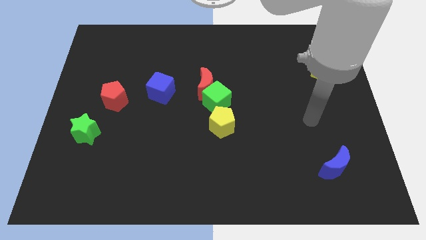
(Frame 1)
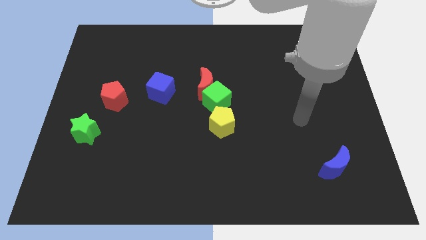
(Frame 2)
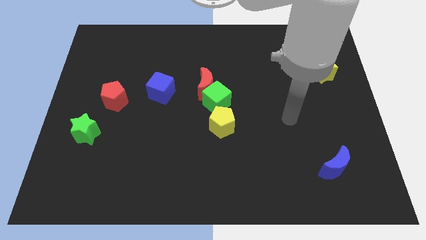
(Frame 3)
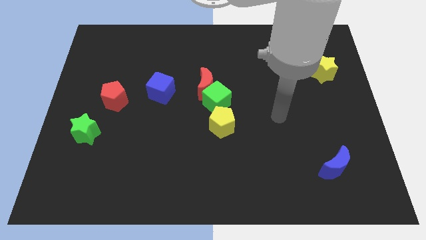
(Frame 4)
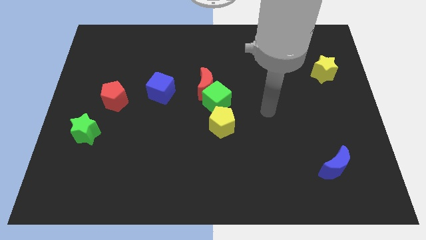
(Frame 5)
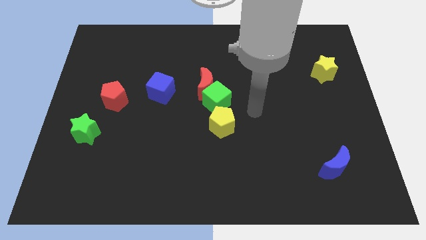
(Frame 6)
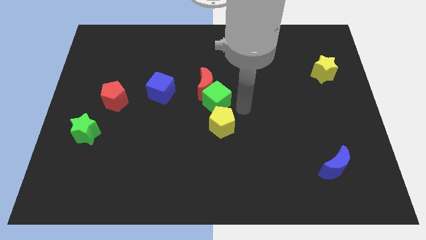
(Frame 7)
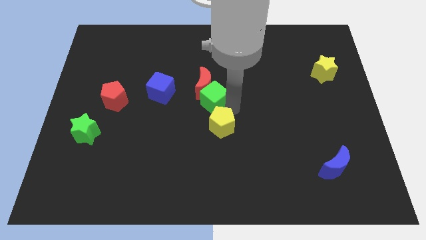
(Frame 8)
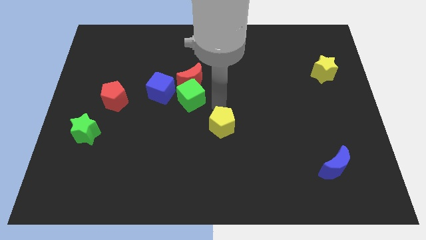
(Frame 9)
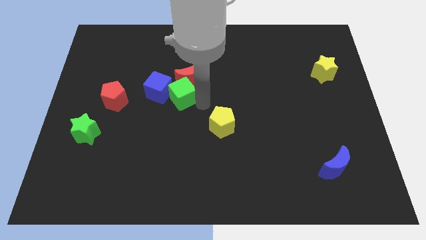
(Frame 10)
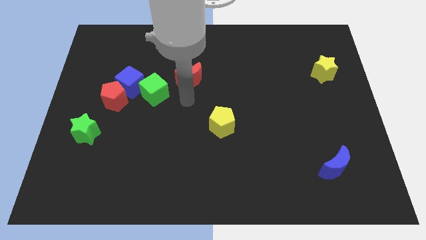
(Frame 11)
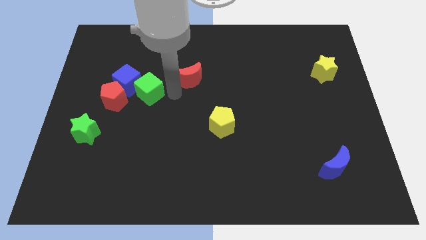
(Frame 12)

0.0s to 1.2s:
pull the red moon apart from the green cube

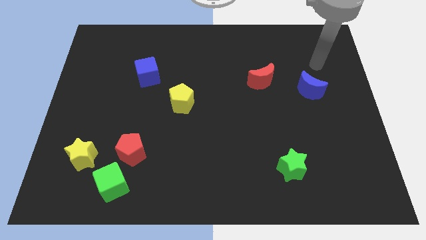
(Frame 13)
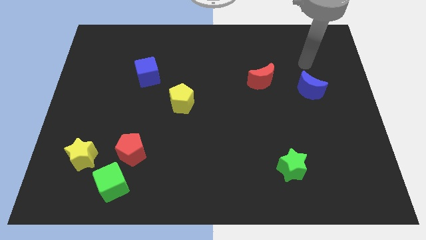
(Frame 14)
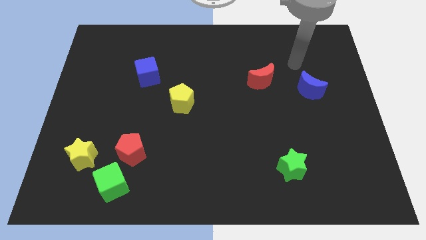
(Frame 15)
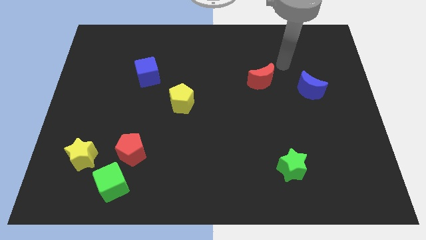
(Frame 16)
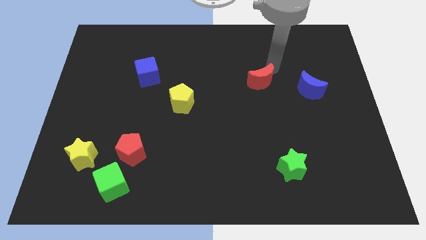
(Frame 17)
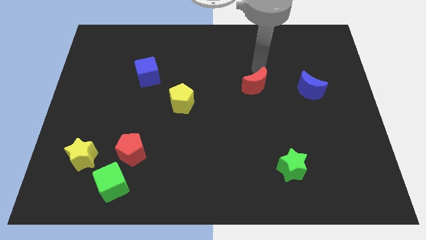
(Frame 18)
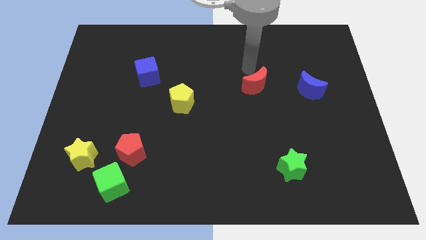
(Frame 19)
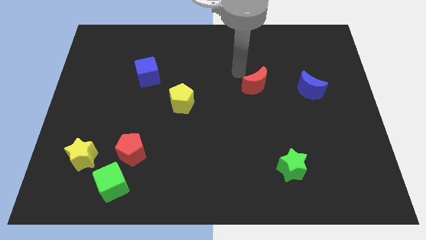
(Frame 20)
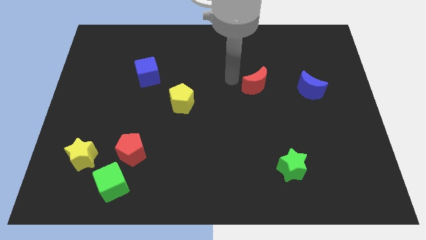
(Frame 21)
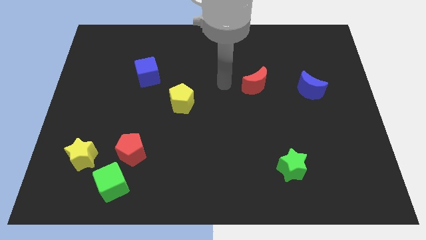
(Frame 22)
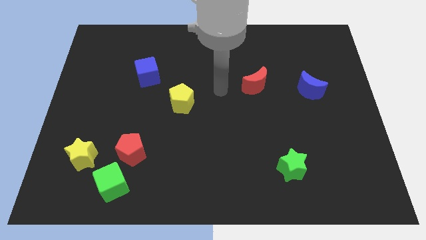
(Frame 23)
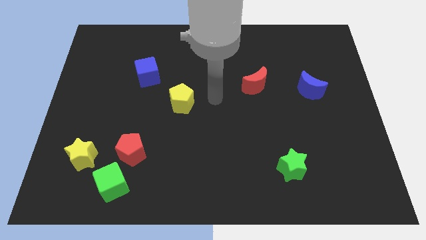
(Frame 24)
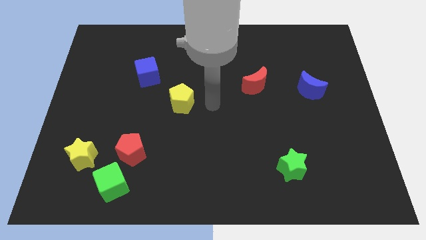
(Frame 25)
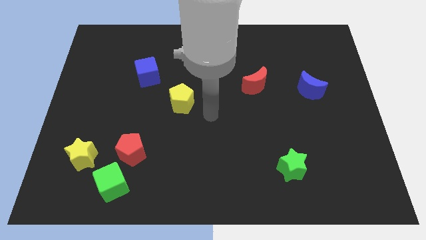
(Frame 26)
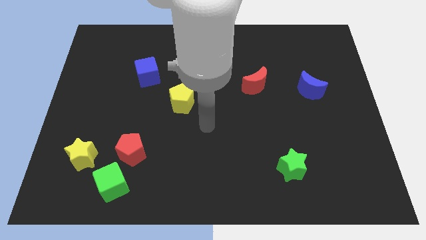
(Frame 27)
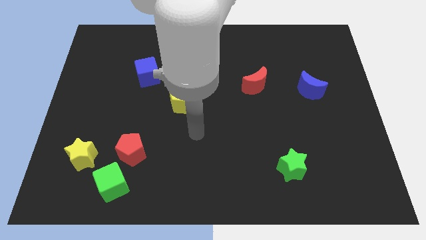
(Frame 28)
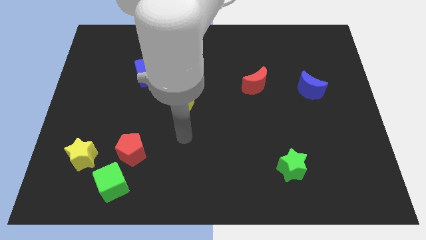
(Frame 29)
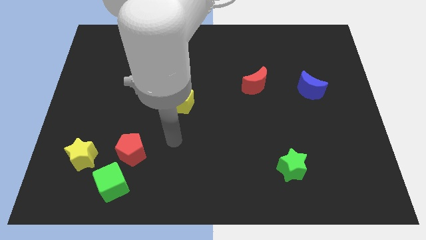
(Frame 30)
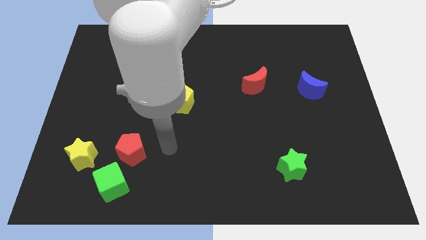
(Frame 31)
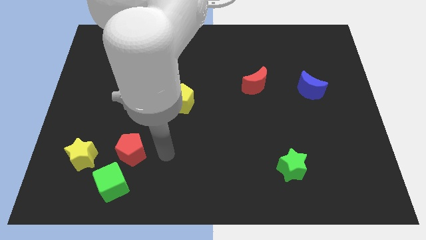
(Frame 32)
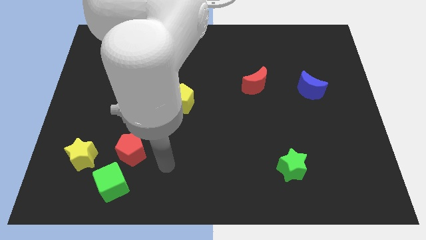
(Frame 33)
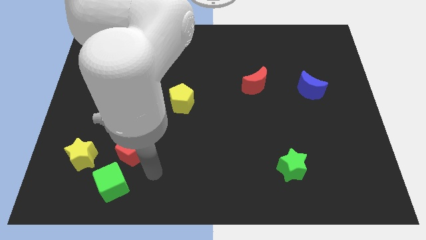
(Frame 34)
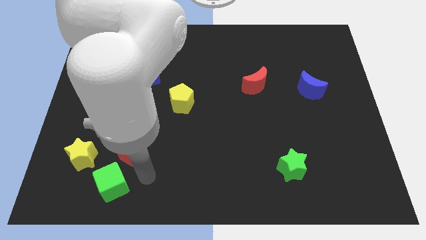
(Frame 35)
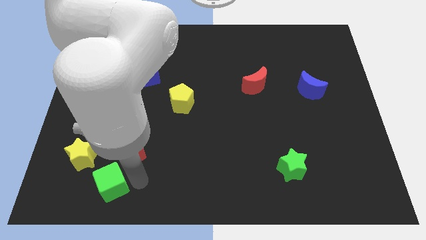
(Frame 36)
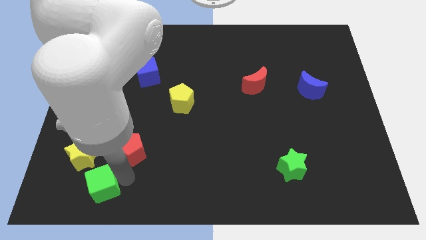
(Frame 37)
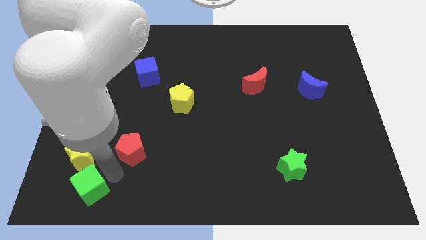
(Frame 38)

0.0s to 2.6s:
pull the red pentagon apart from the green cube

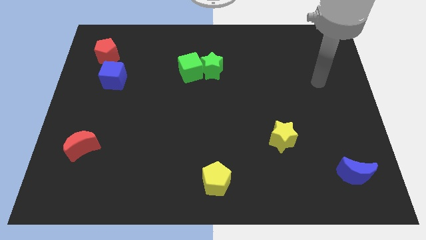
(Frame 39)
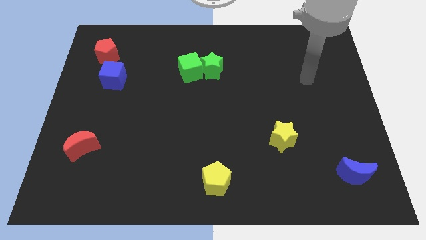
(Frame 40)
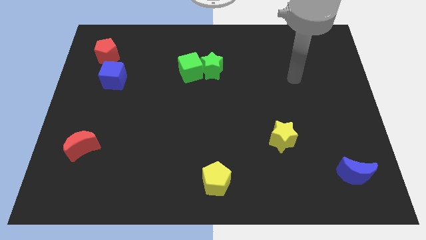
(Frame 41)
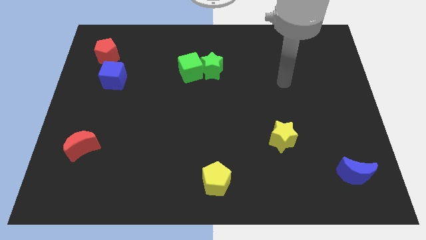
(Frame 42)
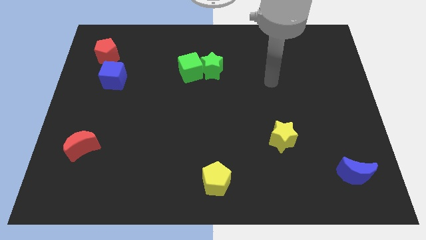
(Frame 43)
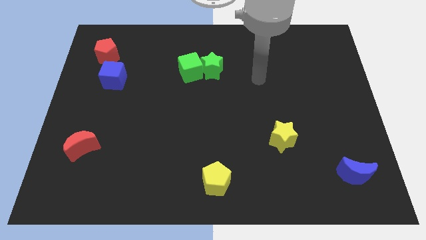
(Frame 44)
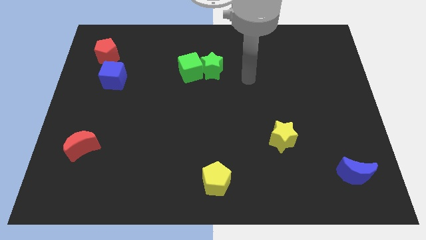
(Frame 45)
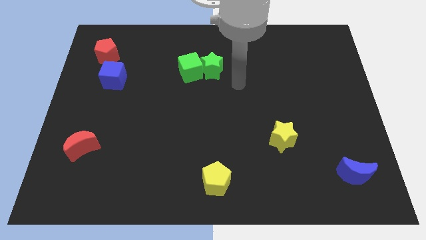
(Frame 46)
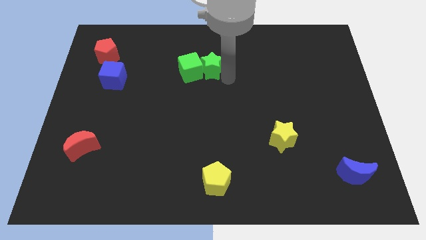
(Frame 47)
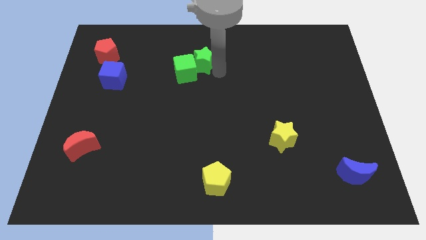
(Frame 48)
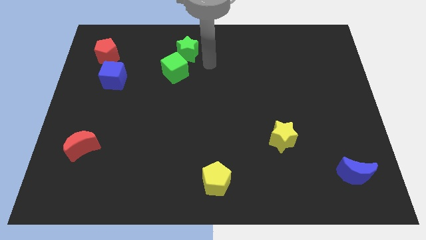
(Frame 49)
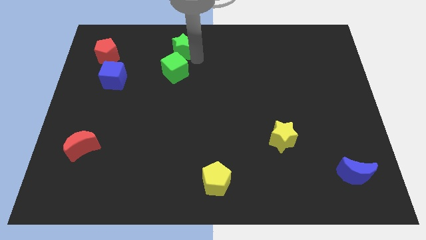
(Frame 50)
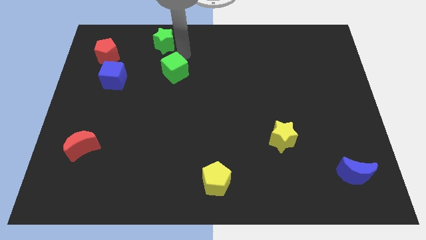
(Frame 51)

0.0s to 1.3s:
pull the green cube apart from the green star

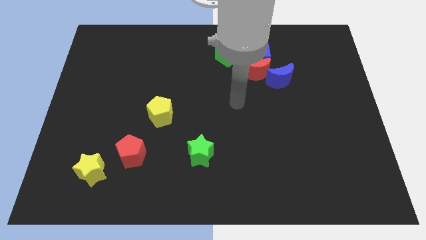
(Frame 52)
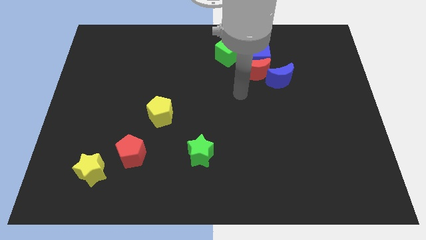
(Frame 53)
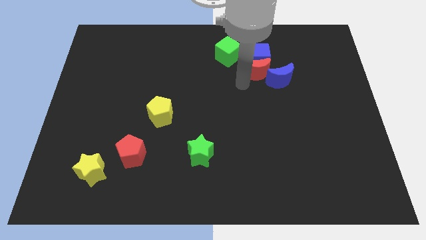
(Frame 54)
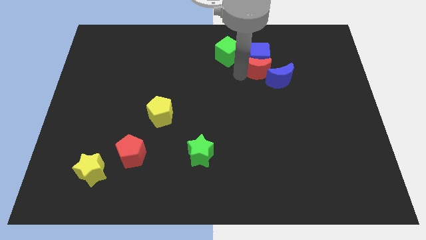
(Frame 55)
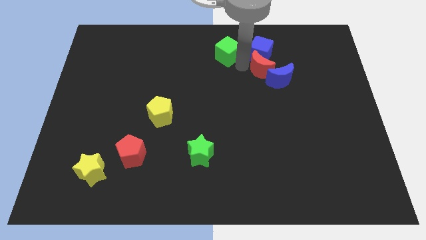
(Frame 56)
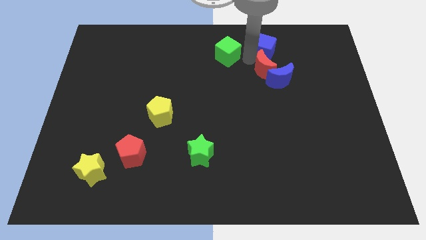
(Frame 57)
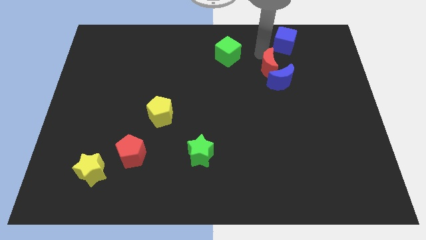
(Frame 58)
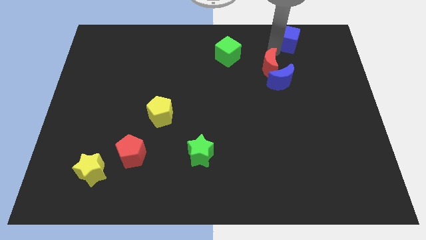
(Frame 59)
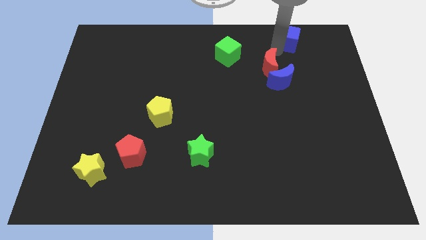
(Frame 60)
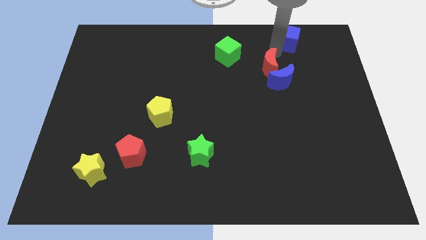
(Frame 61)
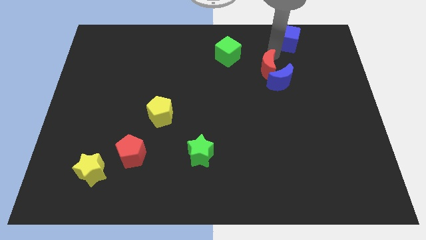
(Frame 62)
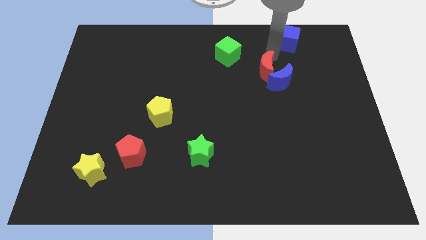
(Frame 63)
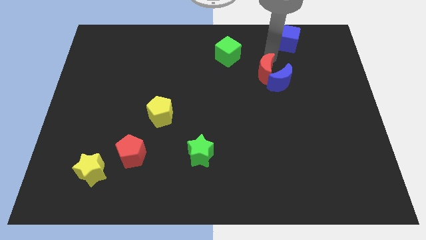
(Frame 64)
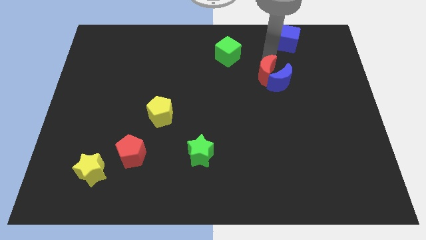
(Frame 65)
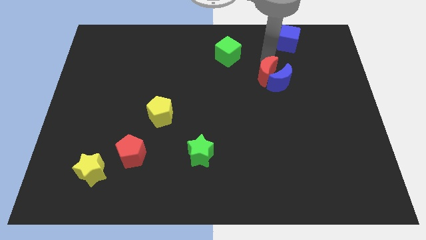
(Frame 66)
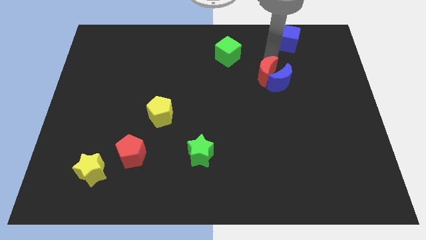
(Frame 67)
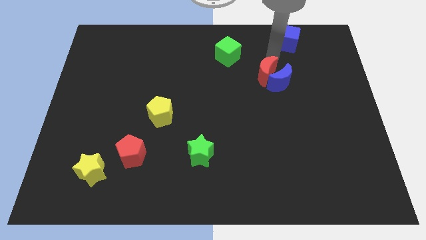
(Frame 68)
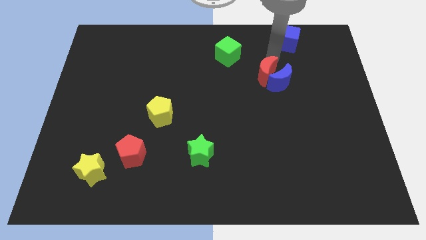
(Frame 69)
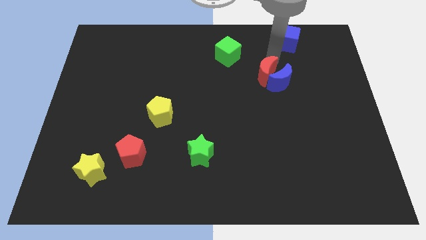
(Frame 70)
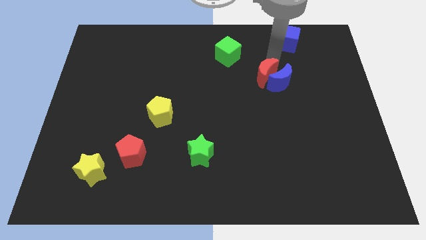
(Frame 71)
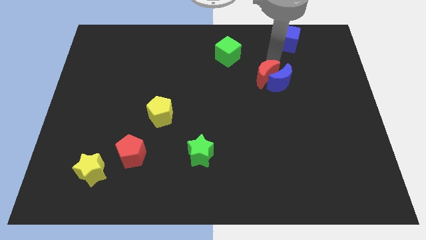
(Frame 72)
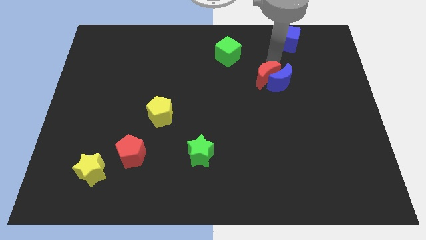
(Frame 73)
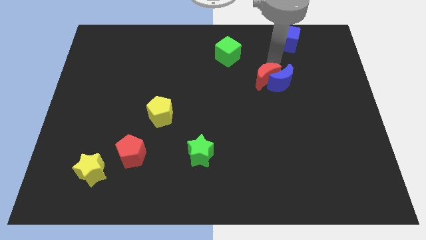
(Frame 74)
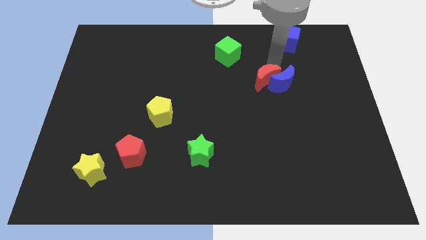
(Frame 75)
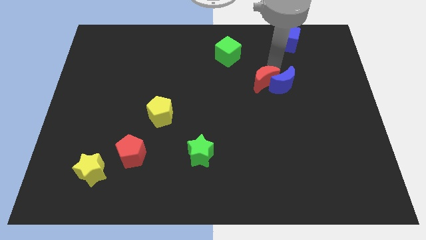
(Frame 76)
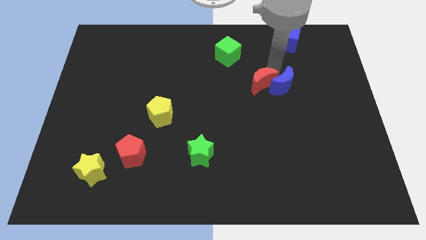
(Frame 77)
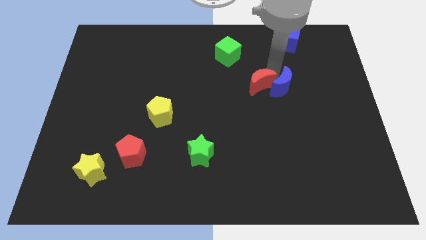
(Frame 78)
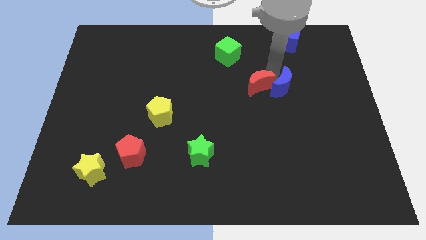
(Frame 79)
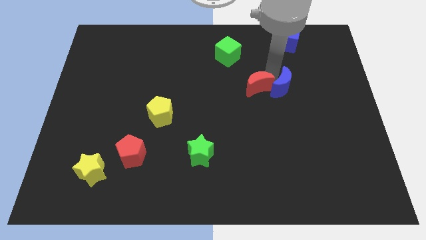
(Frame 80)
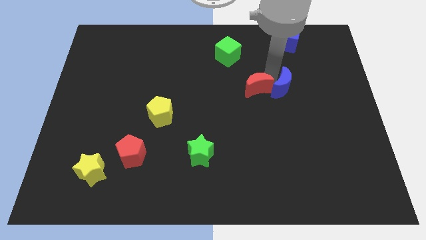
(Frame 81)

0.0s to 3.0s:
move the red moon away from the blue cube, blue moon, and green cube

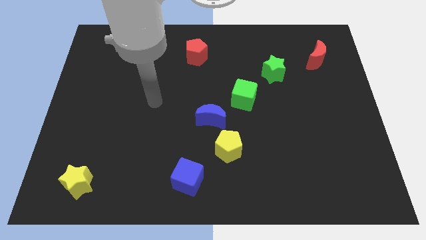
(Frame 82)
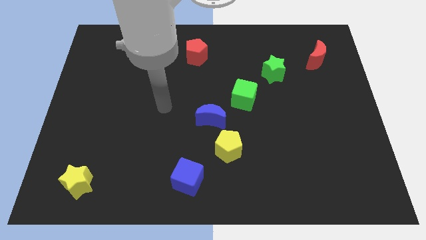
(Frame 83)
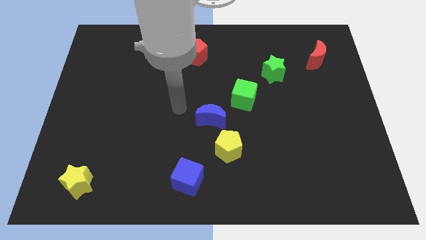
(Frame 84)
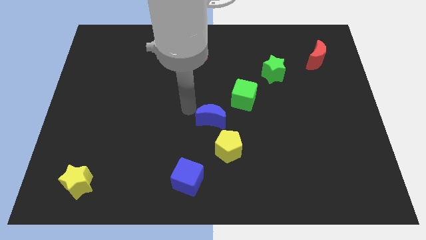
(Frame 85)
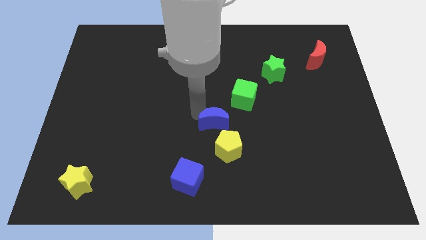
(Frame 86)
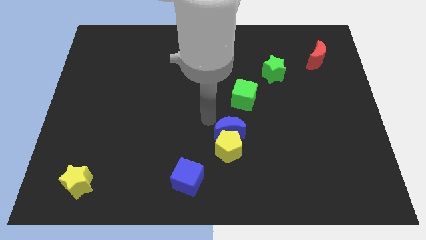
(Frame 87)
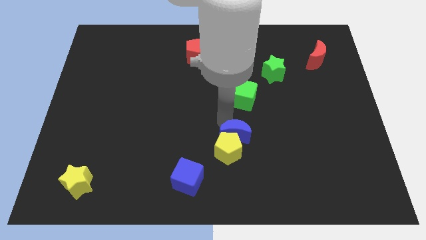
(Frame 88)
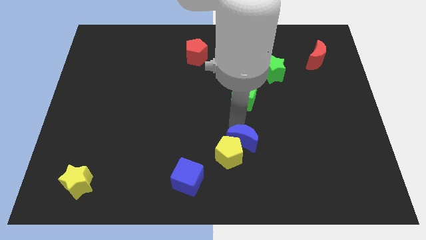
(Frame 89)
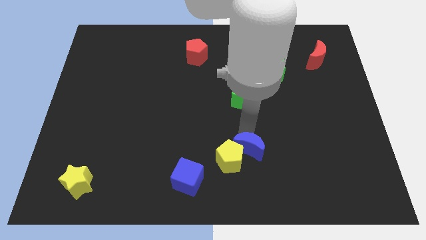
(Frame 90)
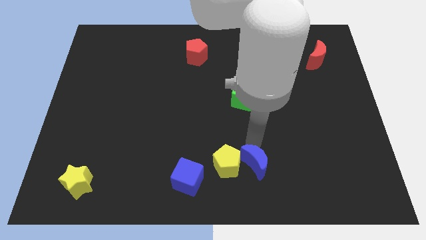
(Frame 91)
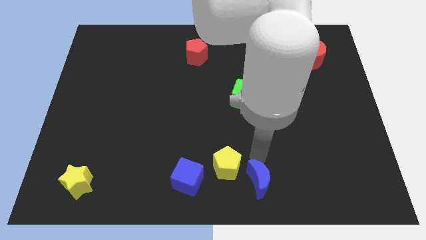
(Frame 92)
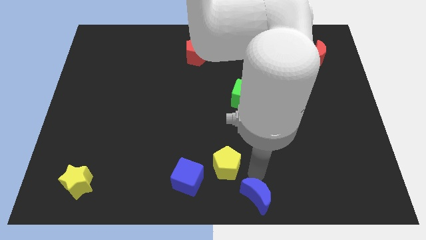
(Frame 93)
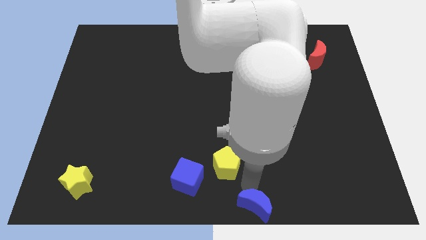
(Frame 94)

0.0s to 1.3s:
move the yellow pentagon away from the blue moon
